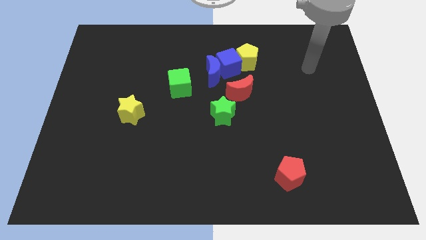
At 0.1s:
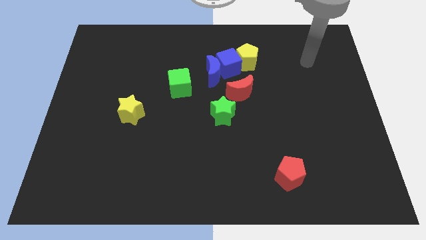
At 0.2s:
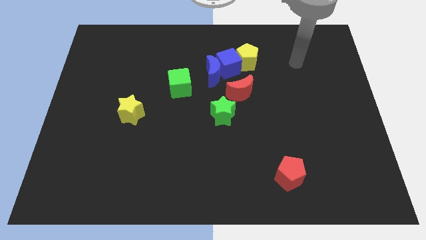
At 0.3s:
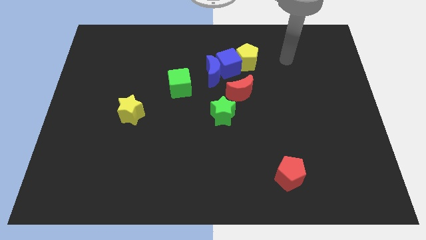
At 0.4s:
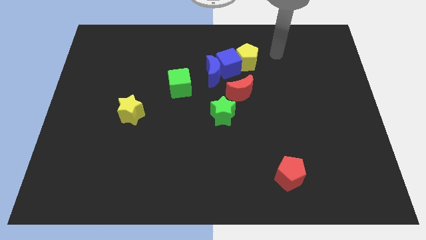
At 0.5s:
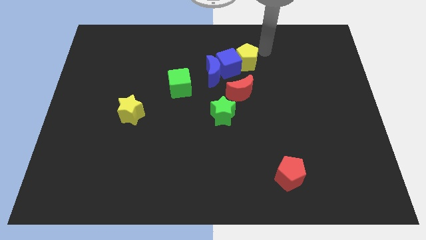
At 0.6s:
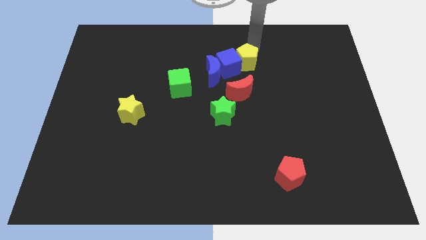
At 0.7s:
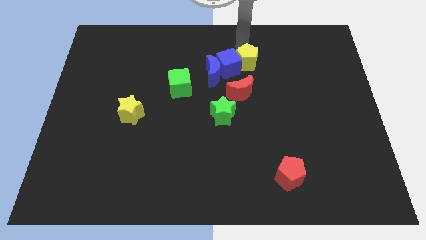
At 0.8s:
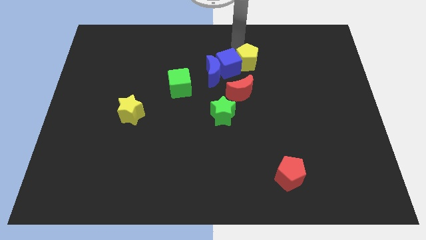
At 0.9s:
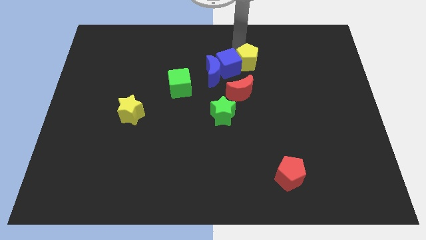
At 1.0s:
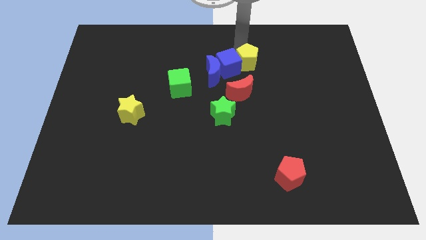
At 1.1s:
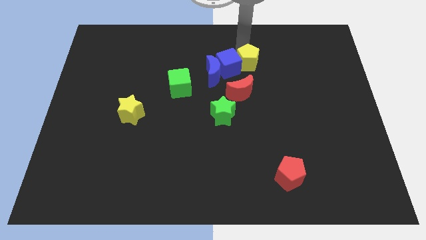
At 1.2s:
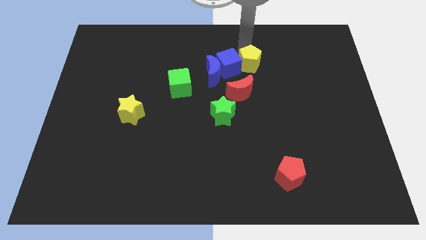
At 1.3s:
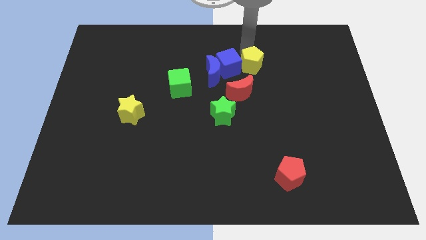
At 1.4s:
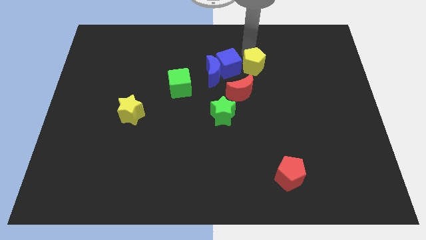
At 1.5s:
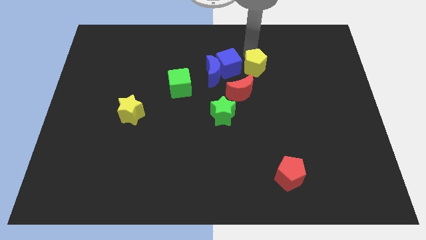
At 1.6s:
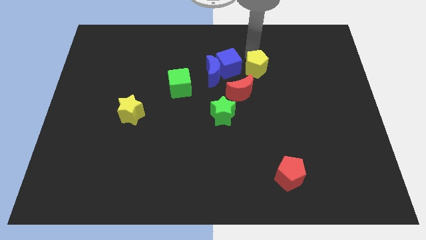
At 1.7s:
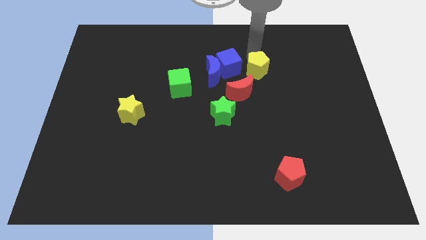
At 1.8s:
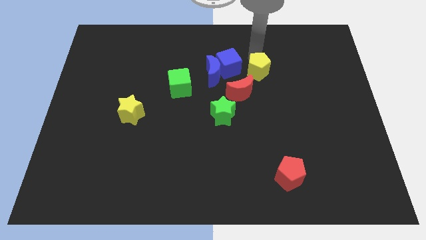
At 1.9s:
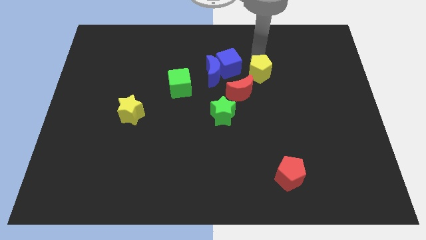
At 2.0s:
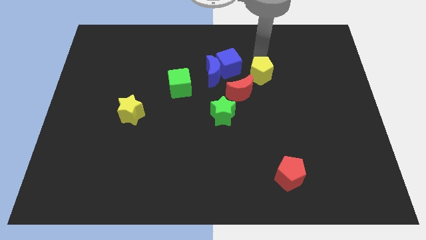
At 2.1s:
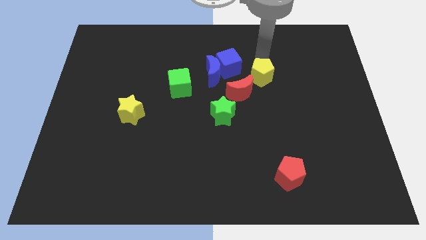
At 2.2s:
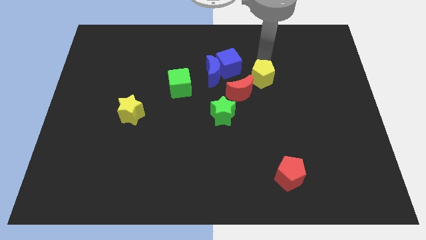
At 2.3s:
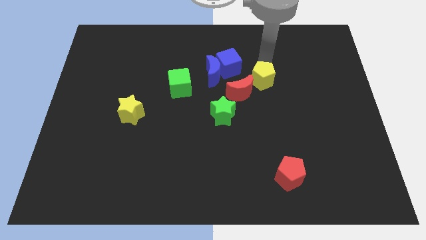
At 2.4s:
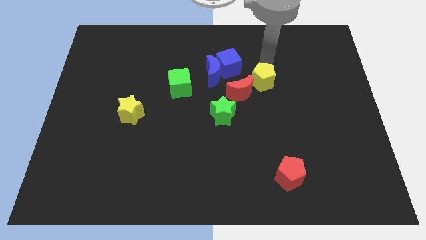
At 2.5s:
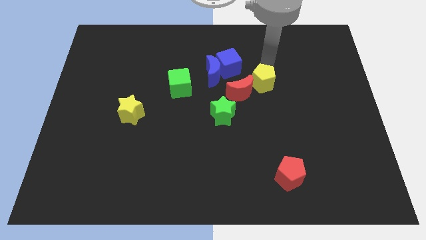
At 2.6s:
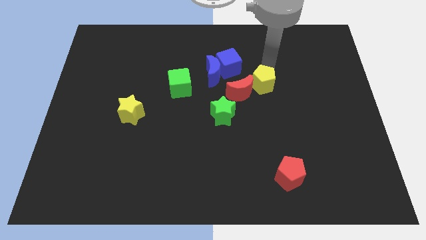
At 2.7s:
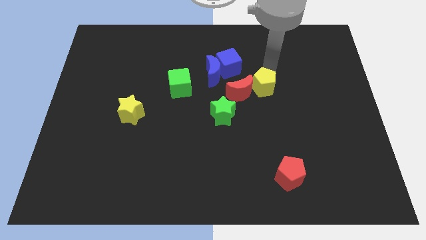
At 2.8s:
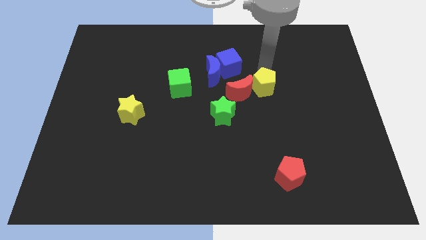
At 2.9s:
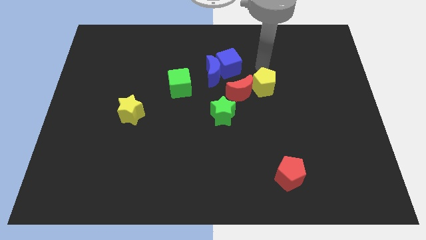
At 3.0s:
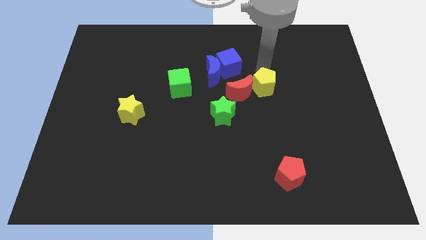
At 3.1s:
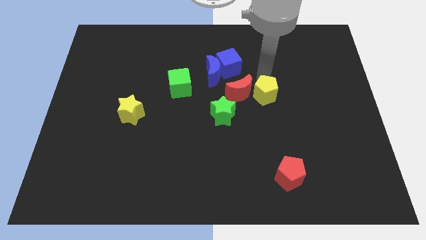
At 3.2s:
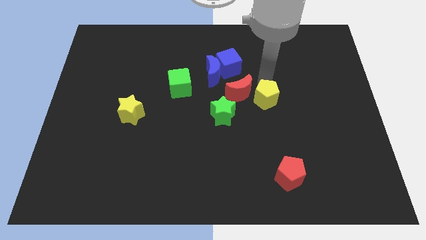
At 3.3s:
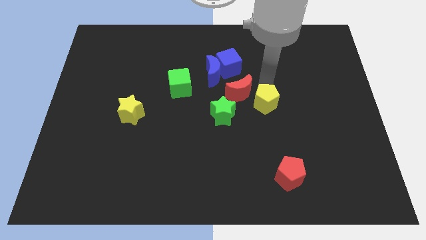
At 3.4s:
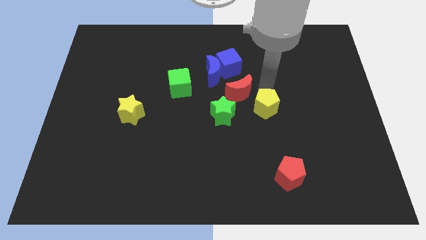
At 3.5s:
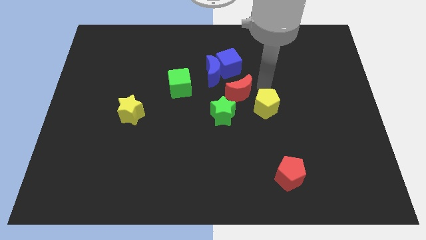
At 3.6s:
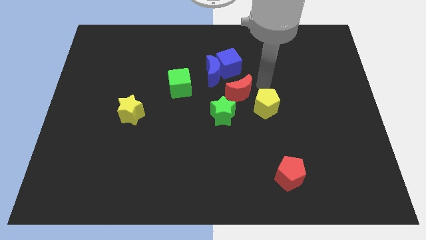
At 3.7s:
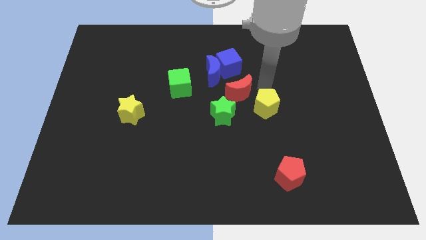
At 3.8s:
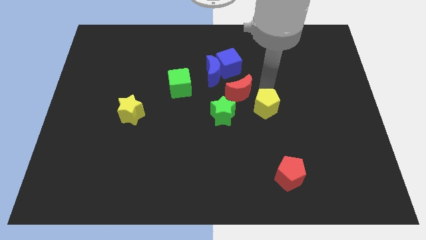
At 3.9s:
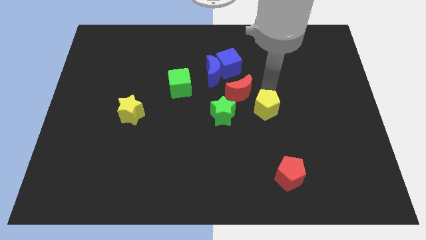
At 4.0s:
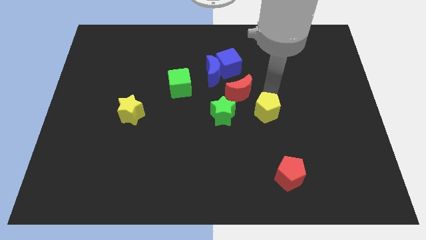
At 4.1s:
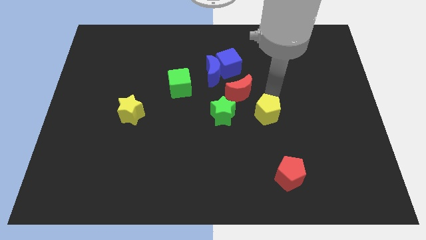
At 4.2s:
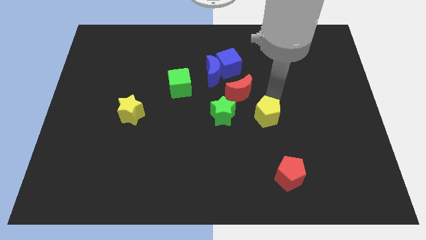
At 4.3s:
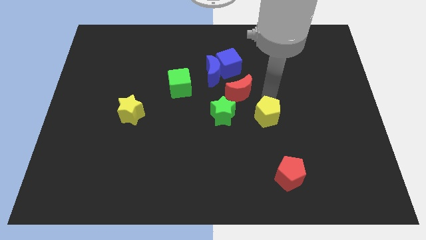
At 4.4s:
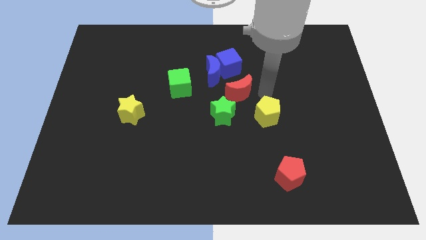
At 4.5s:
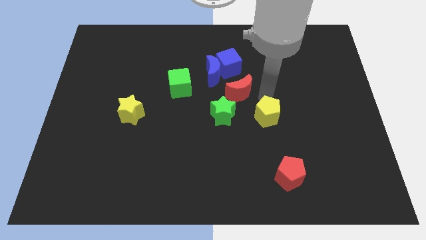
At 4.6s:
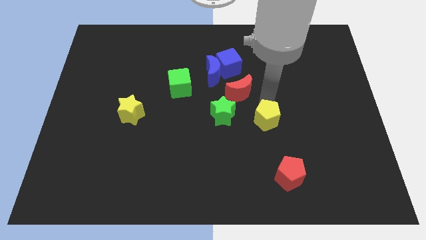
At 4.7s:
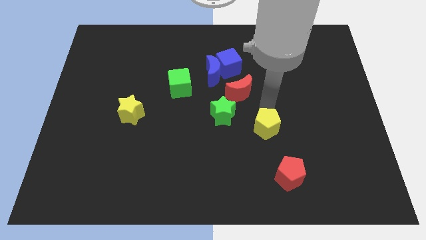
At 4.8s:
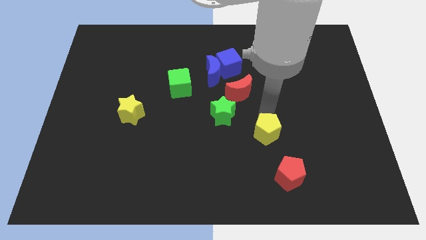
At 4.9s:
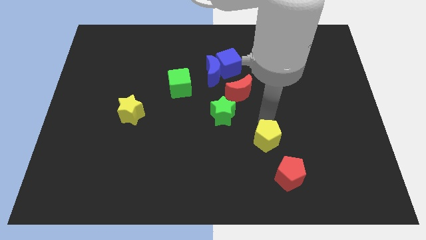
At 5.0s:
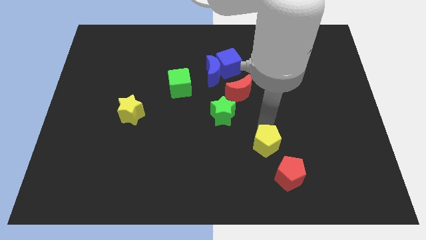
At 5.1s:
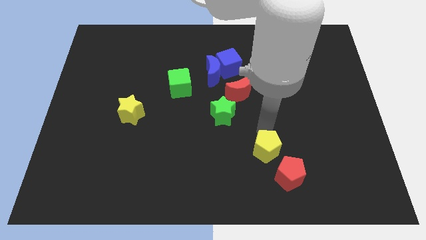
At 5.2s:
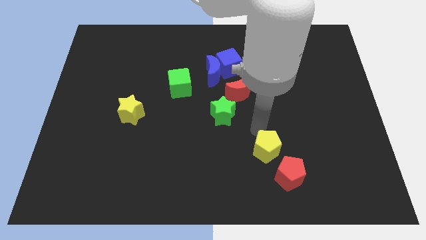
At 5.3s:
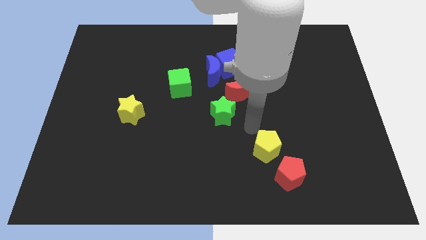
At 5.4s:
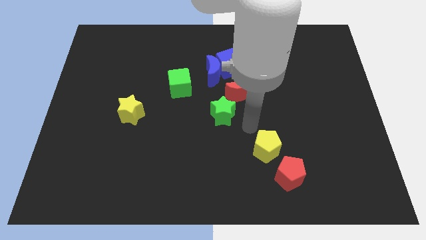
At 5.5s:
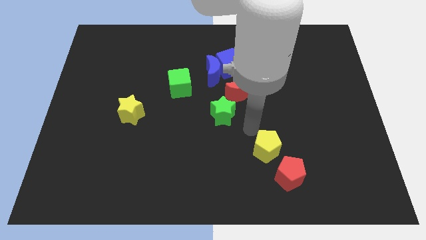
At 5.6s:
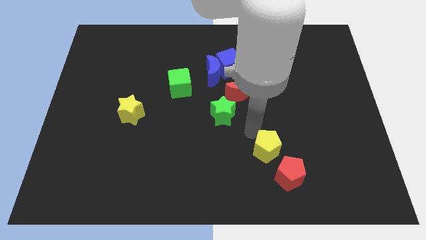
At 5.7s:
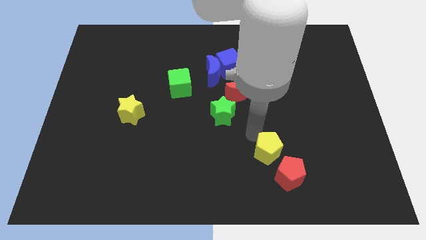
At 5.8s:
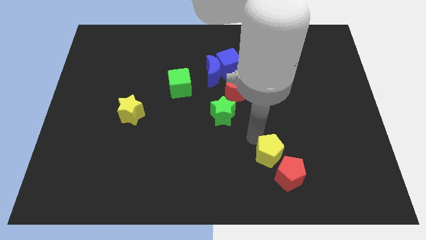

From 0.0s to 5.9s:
put the yellow pentagon towards the red pentagon

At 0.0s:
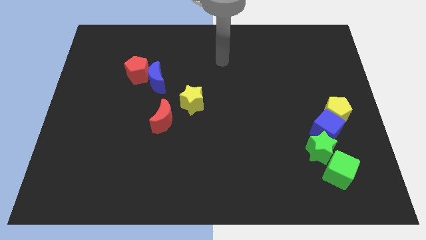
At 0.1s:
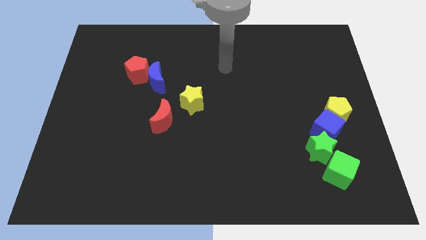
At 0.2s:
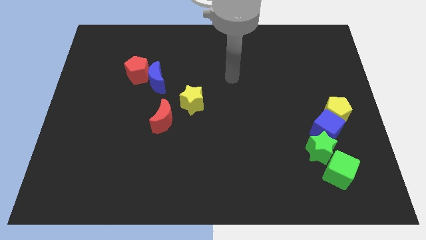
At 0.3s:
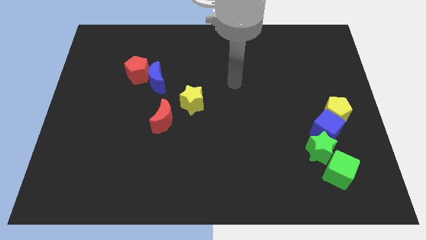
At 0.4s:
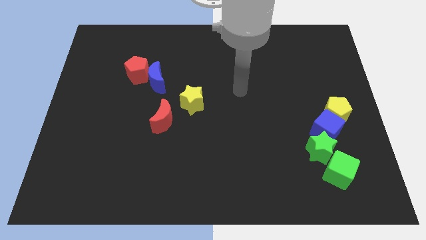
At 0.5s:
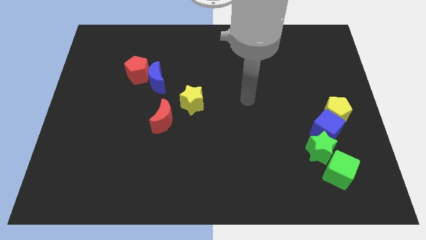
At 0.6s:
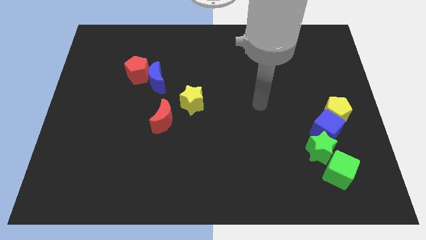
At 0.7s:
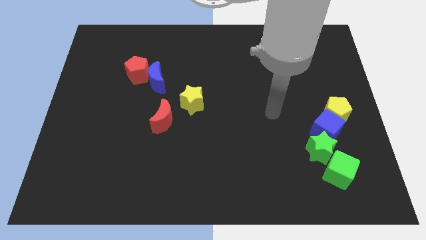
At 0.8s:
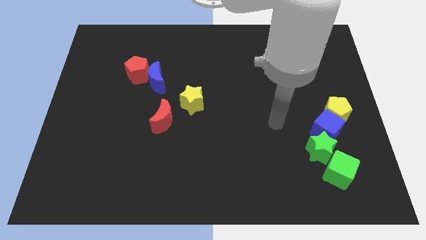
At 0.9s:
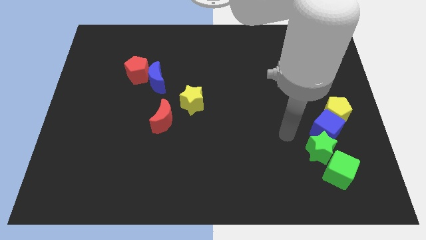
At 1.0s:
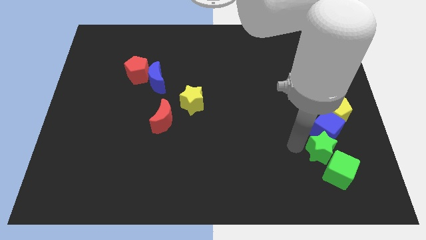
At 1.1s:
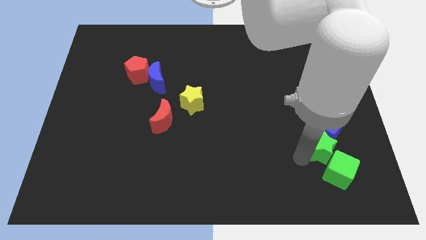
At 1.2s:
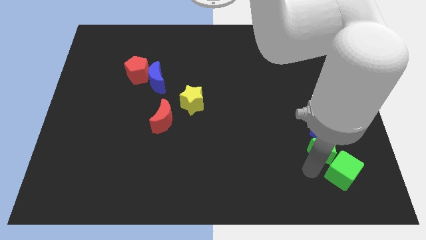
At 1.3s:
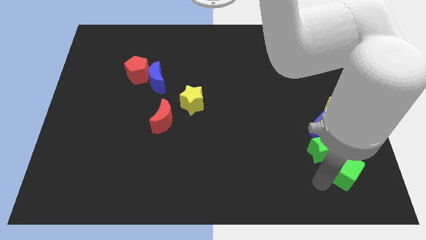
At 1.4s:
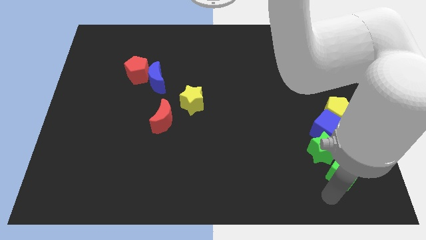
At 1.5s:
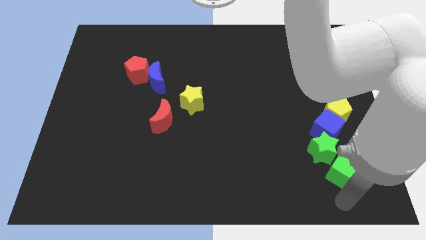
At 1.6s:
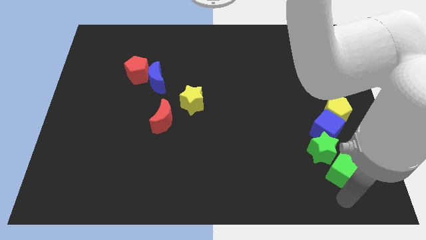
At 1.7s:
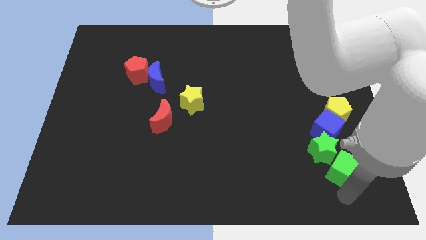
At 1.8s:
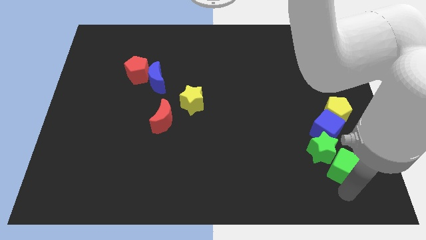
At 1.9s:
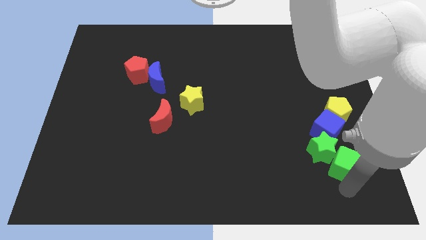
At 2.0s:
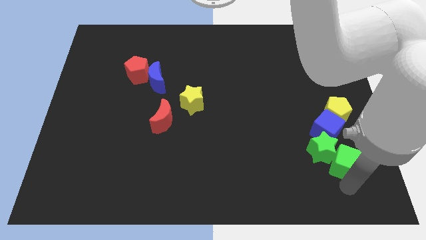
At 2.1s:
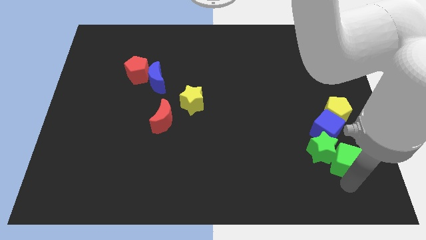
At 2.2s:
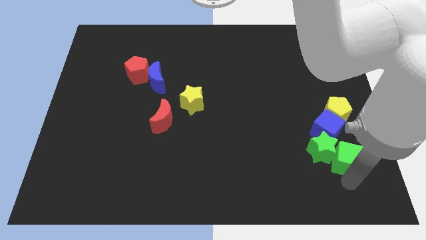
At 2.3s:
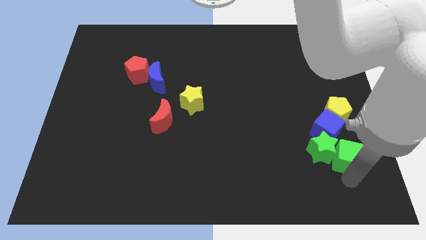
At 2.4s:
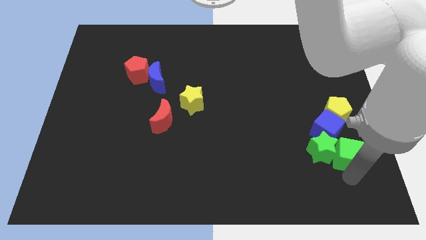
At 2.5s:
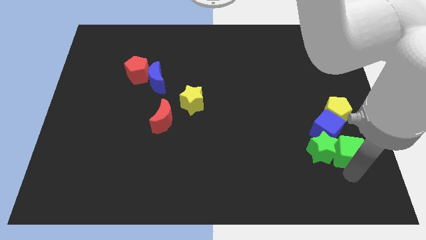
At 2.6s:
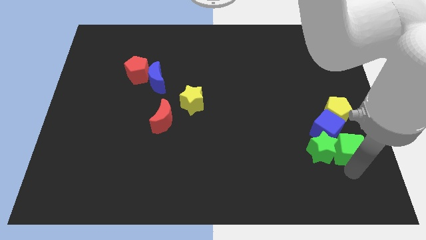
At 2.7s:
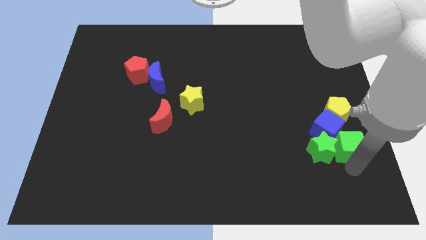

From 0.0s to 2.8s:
push the green cube close to the blue cube
